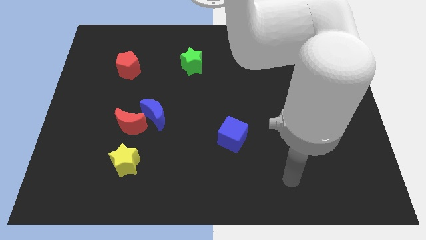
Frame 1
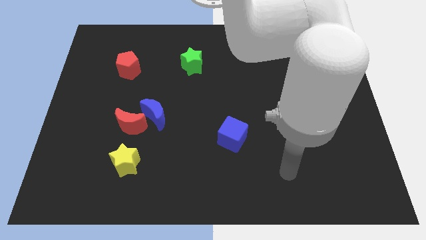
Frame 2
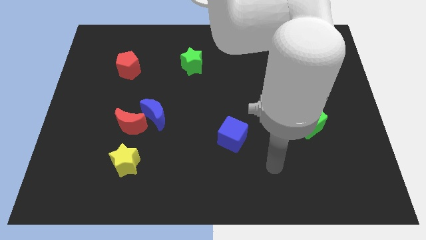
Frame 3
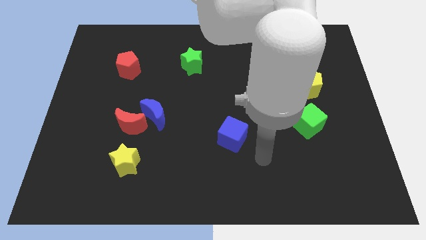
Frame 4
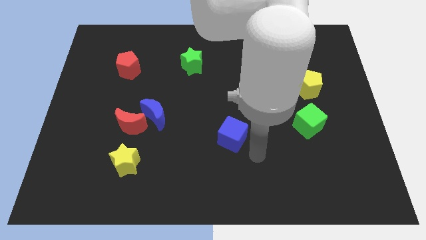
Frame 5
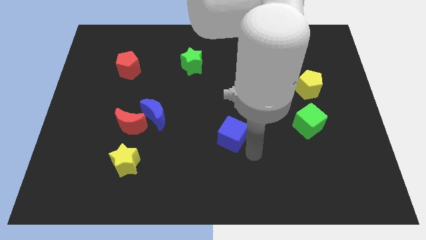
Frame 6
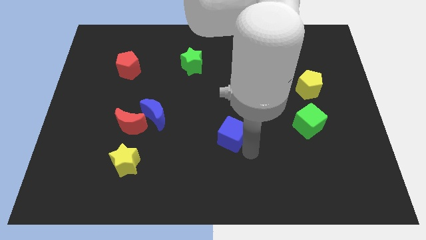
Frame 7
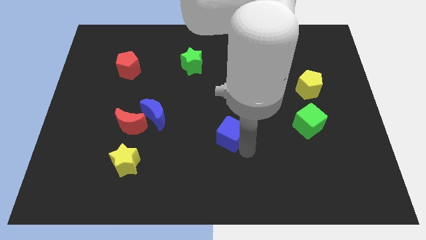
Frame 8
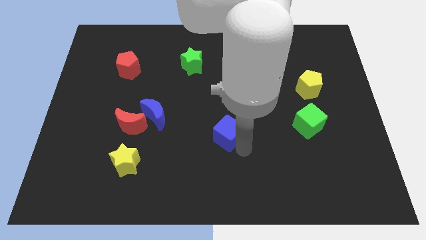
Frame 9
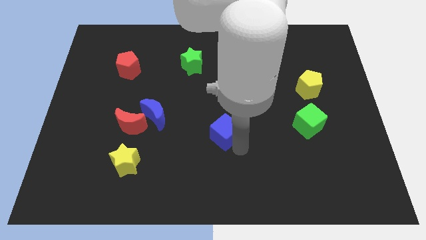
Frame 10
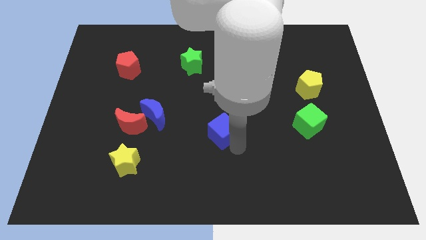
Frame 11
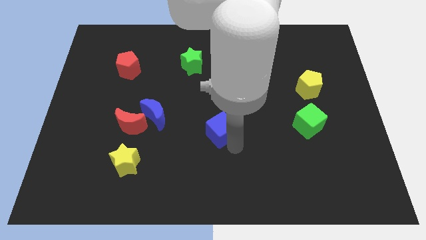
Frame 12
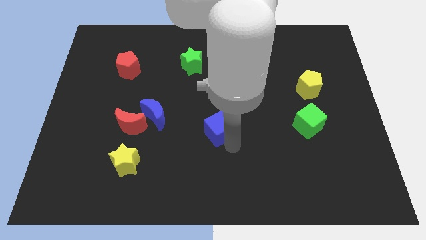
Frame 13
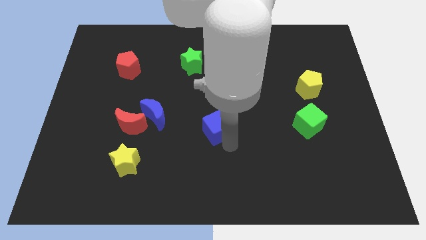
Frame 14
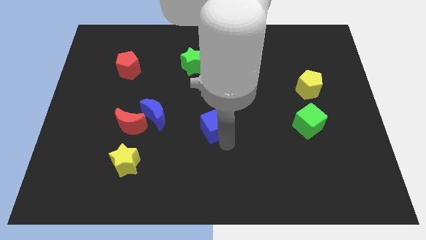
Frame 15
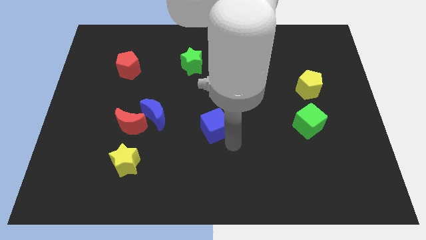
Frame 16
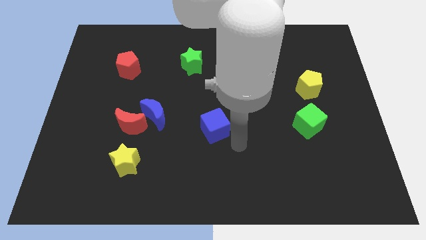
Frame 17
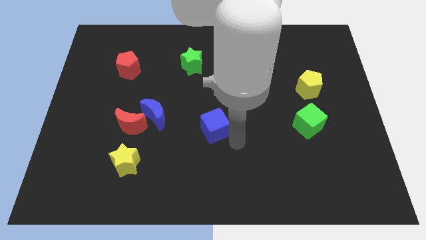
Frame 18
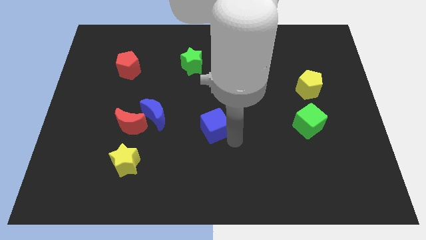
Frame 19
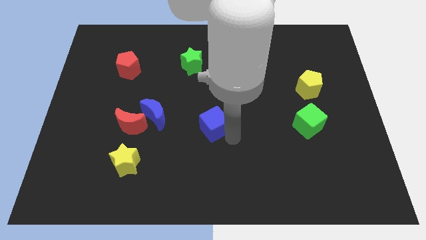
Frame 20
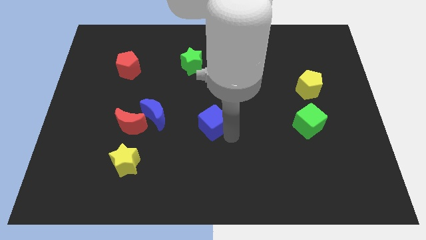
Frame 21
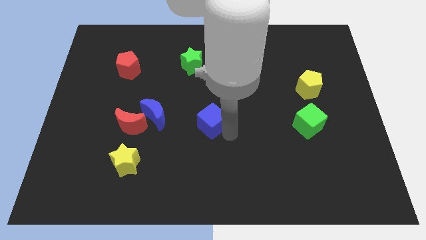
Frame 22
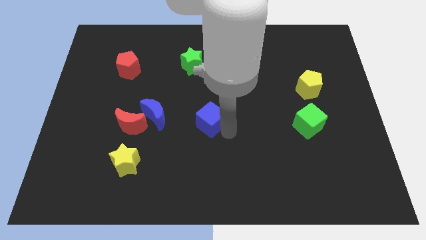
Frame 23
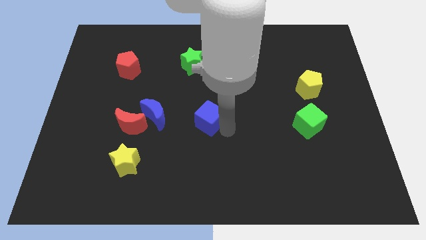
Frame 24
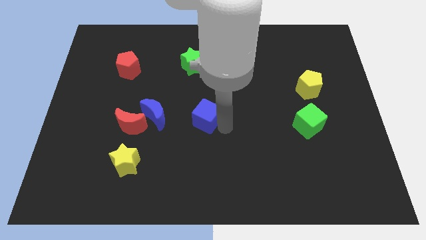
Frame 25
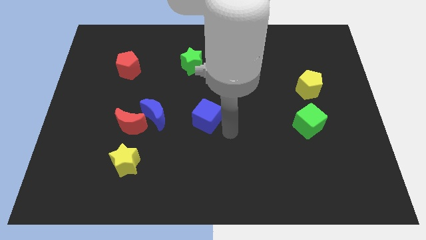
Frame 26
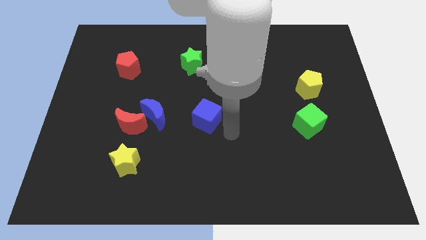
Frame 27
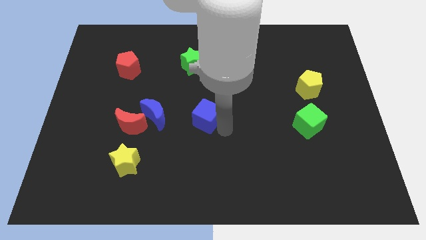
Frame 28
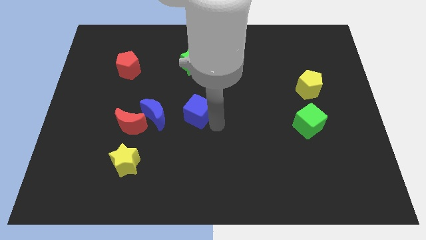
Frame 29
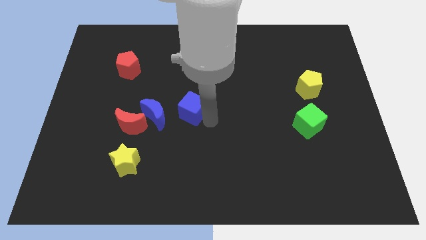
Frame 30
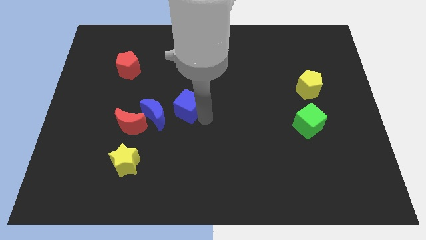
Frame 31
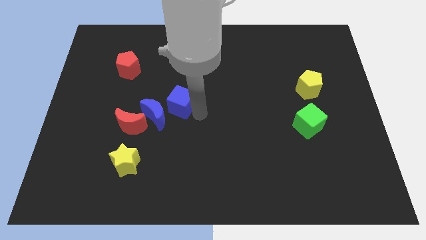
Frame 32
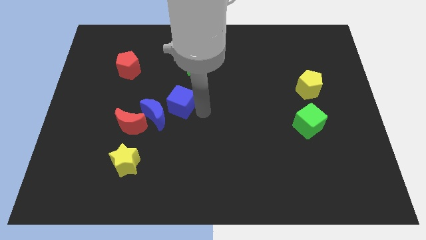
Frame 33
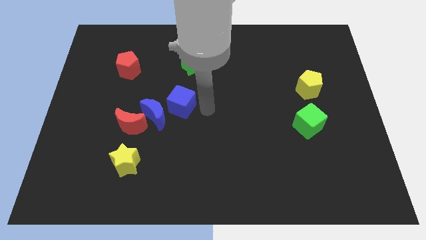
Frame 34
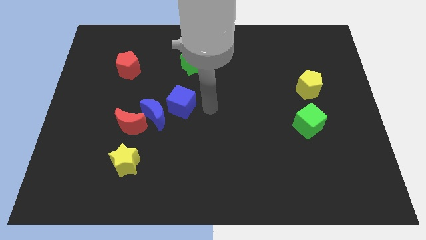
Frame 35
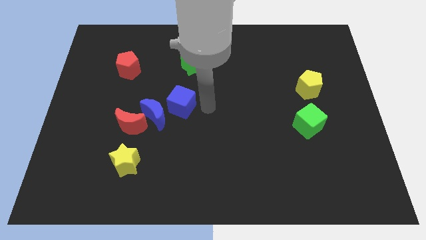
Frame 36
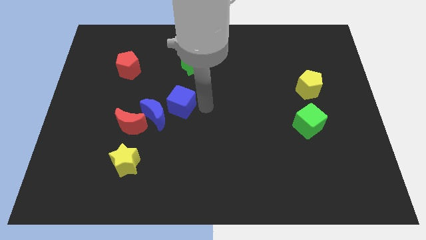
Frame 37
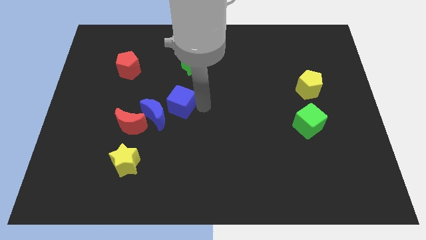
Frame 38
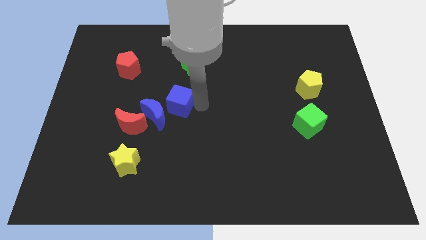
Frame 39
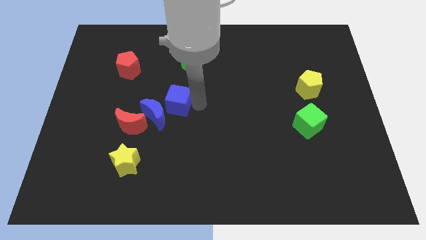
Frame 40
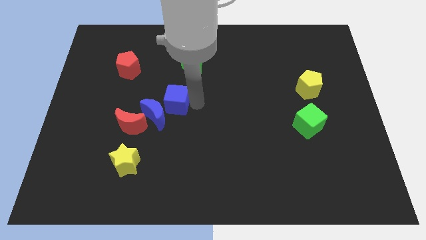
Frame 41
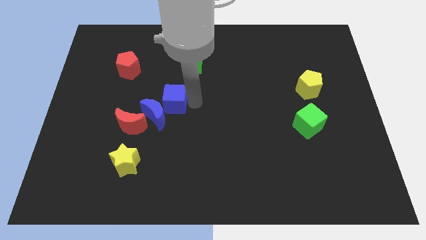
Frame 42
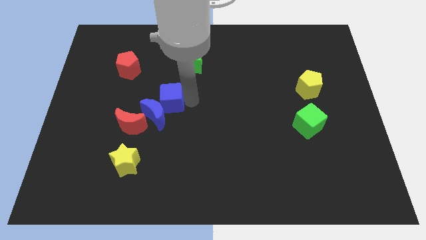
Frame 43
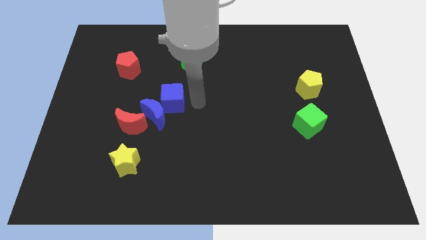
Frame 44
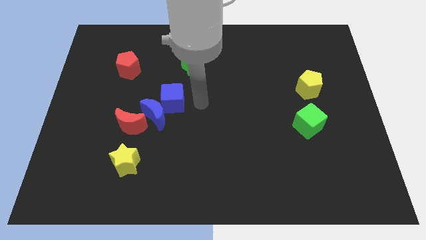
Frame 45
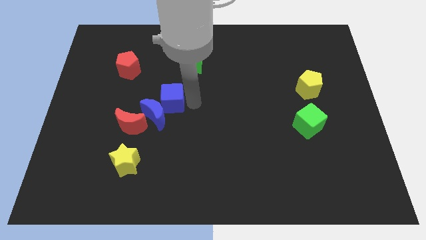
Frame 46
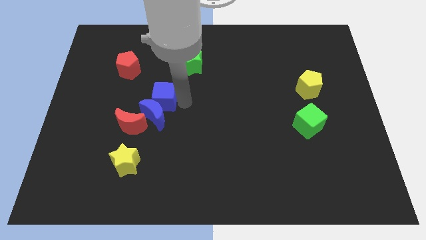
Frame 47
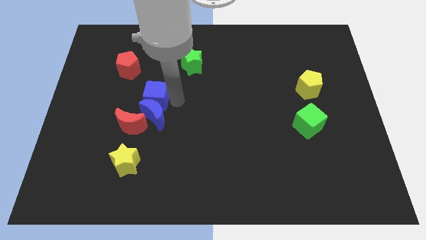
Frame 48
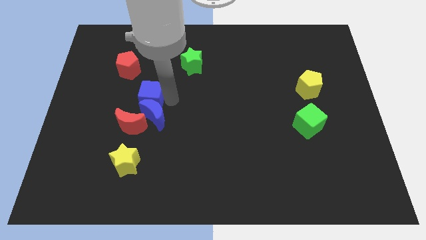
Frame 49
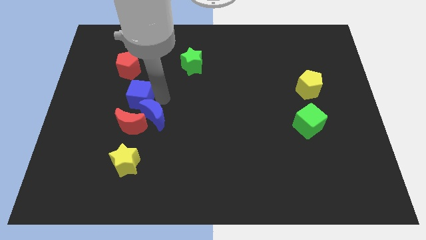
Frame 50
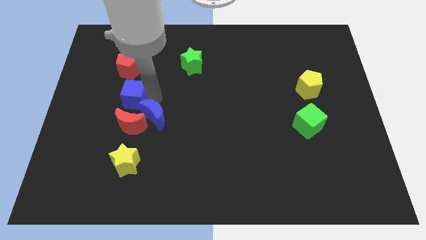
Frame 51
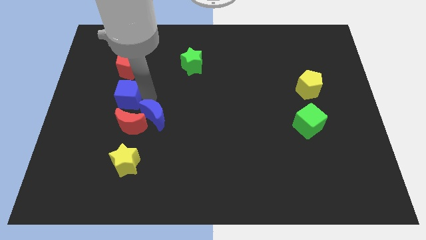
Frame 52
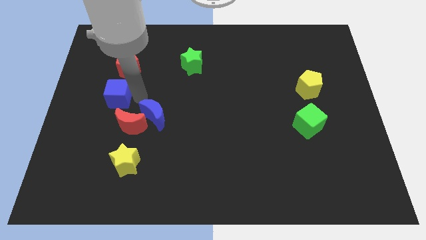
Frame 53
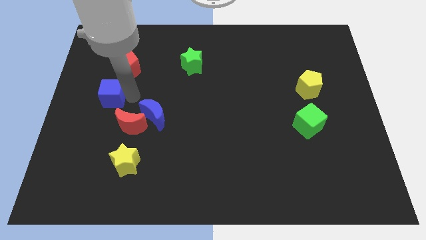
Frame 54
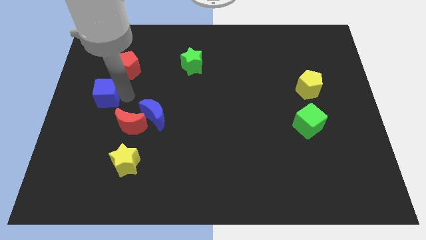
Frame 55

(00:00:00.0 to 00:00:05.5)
put the blue cube to the left side of the board

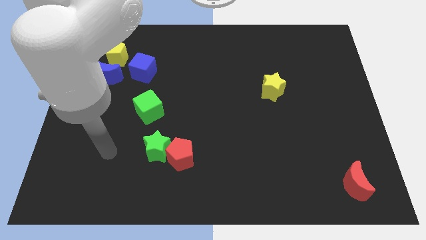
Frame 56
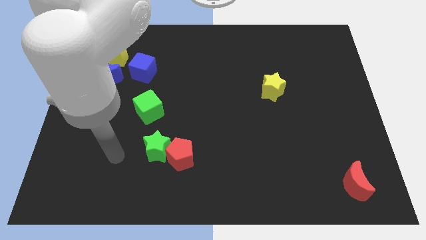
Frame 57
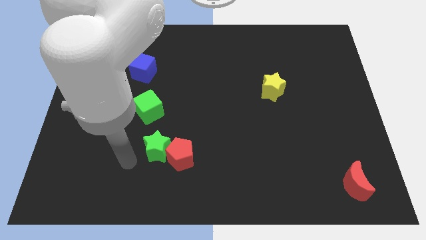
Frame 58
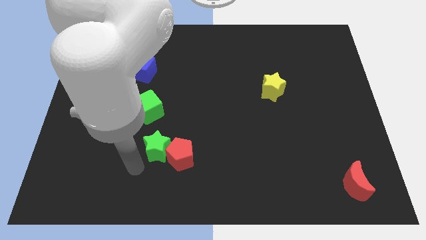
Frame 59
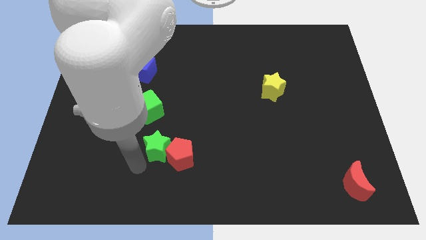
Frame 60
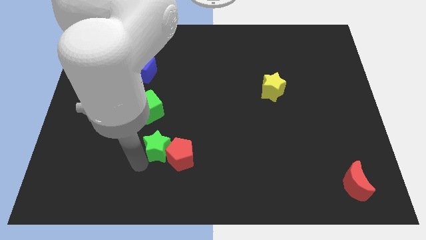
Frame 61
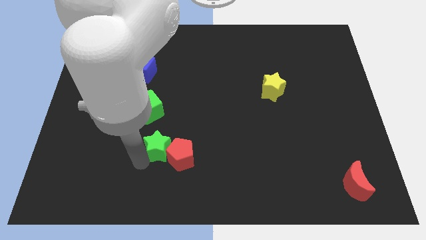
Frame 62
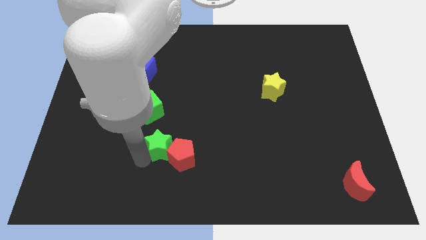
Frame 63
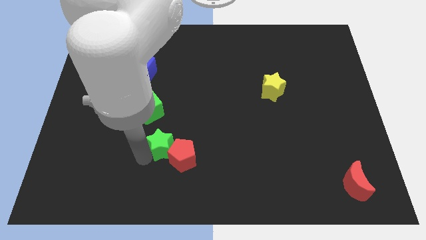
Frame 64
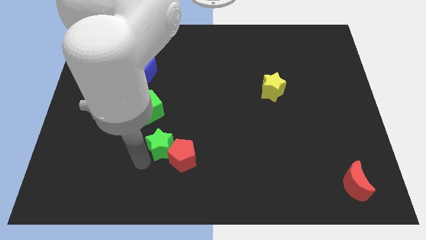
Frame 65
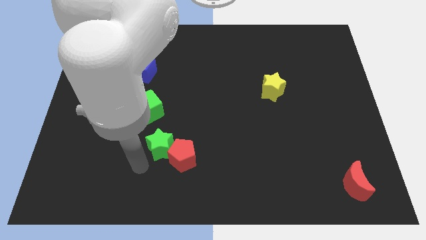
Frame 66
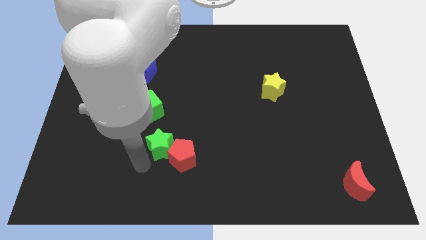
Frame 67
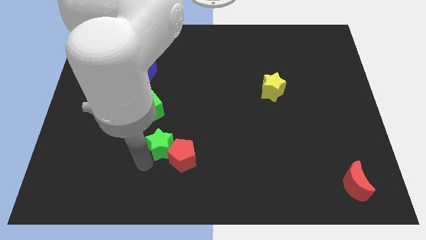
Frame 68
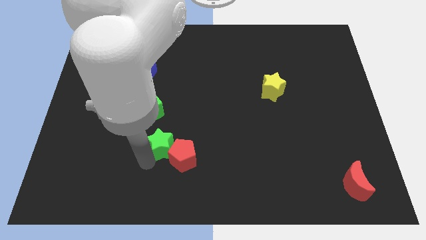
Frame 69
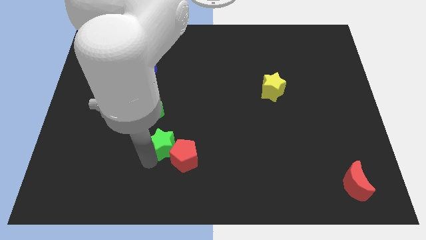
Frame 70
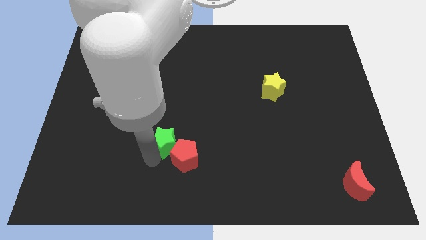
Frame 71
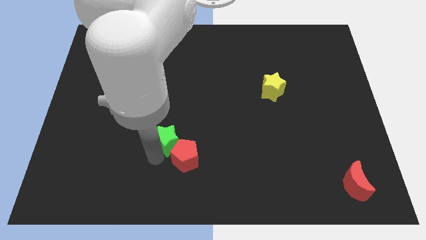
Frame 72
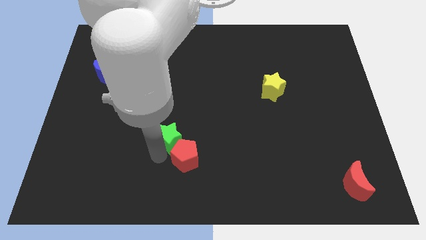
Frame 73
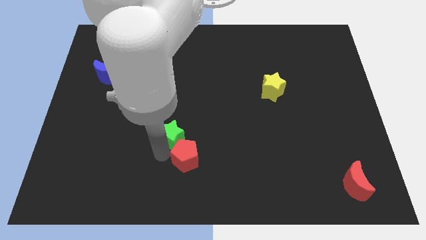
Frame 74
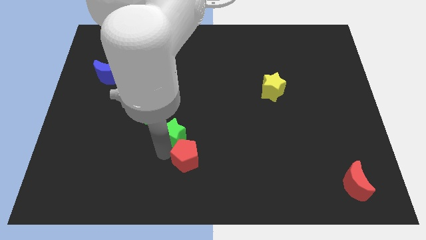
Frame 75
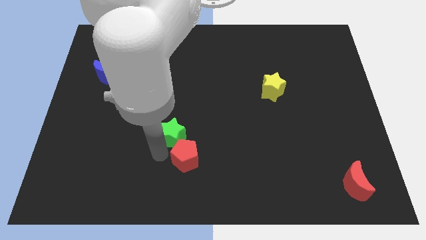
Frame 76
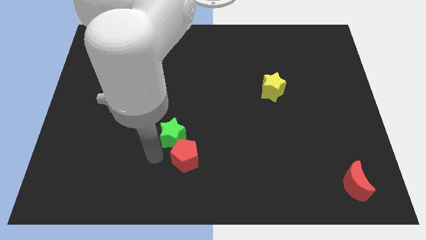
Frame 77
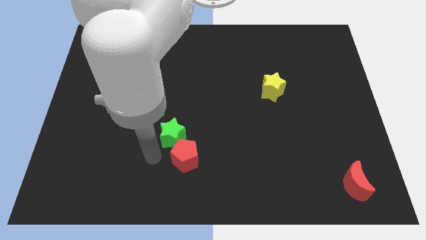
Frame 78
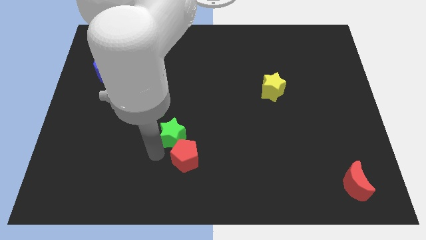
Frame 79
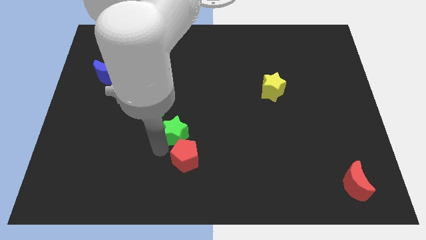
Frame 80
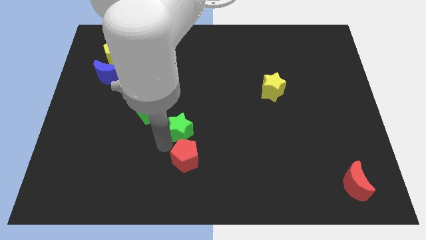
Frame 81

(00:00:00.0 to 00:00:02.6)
move the green star to the center of the board
